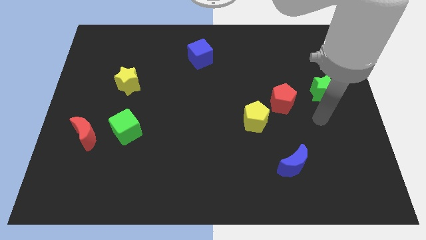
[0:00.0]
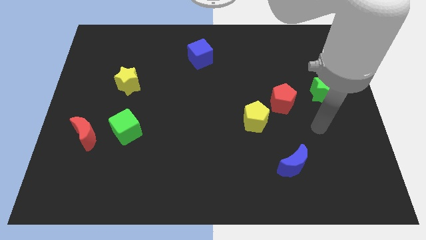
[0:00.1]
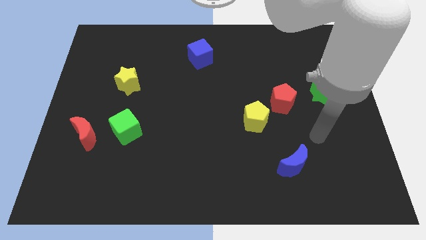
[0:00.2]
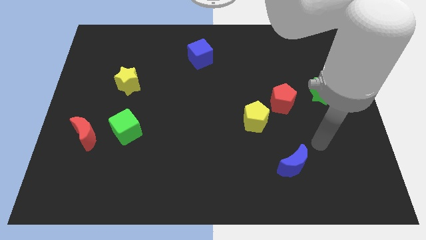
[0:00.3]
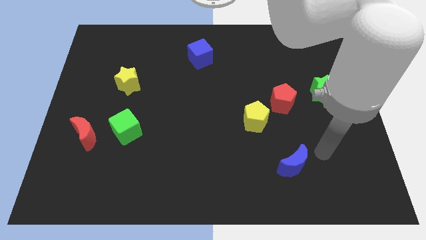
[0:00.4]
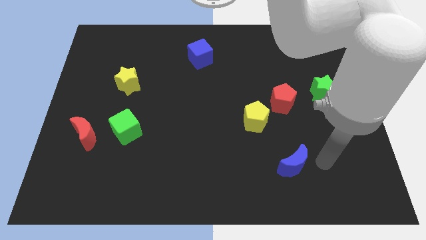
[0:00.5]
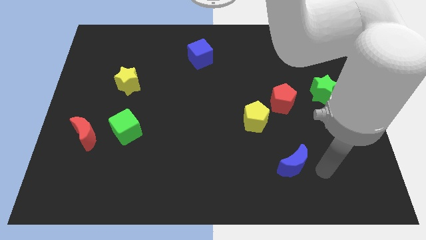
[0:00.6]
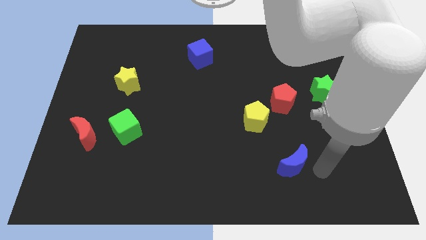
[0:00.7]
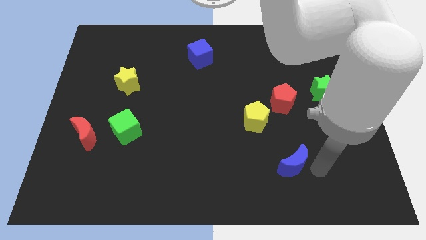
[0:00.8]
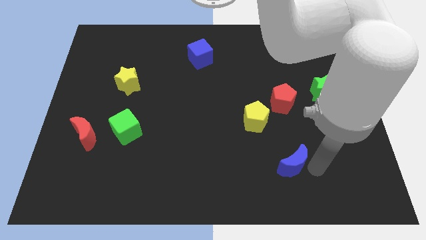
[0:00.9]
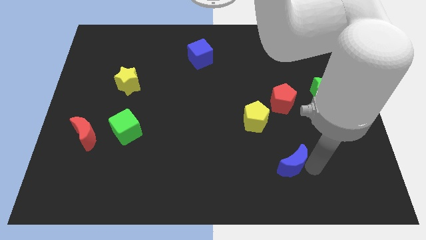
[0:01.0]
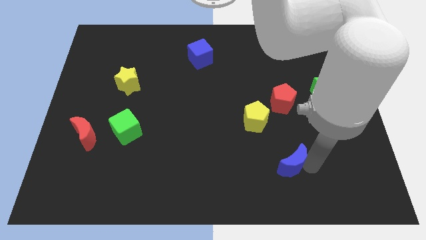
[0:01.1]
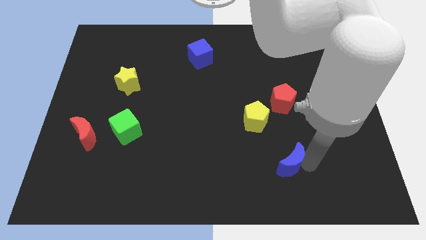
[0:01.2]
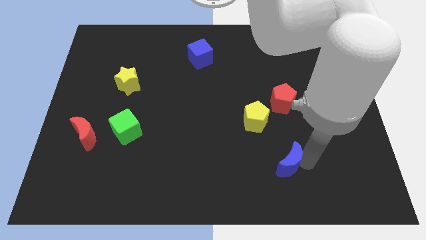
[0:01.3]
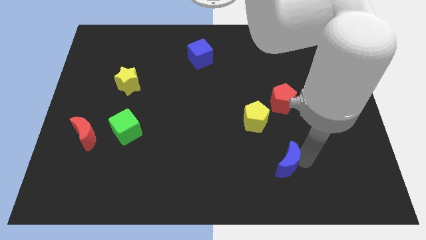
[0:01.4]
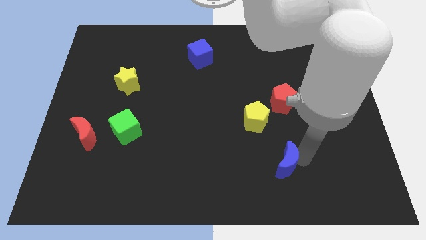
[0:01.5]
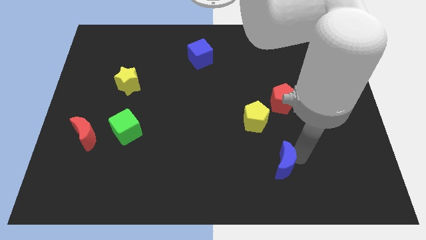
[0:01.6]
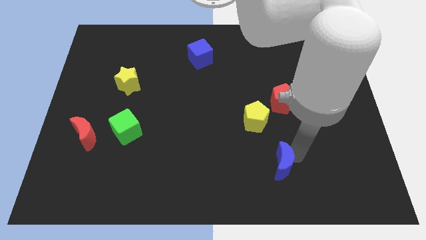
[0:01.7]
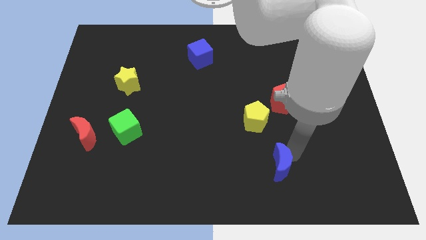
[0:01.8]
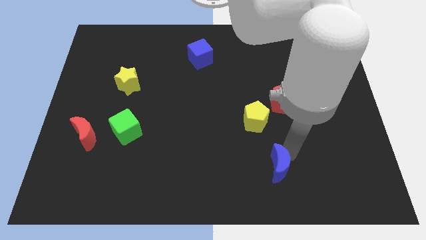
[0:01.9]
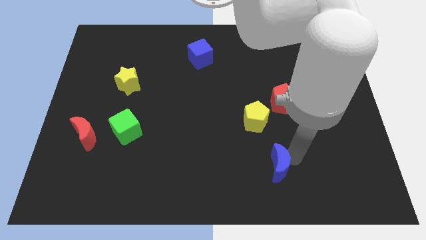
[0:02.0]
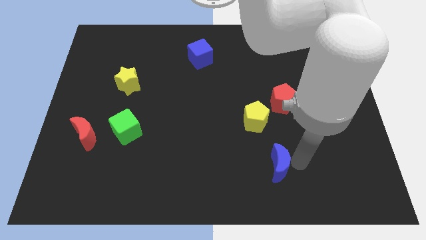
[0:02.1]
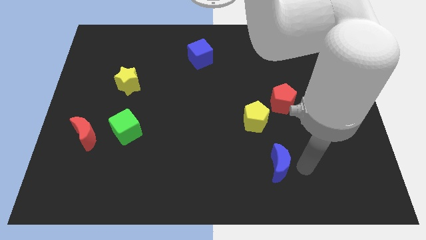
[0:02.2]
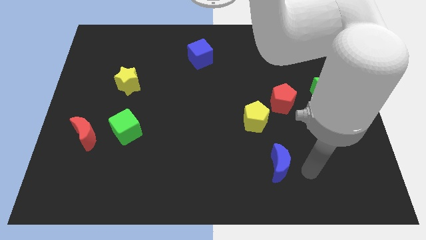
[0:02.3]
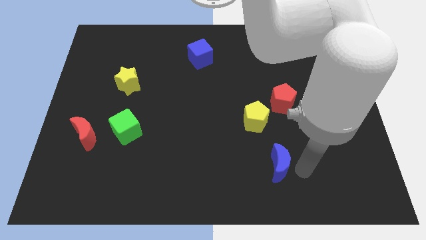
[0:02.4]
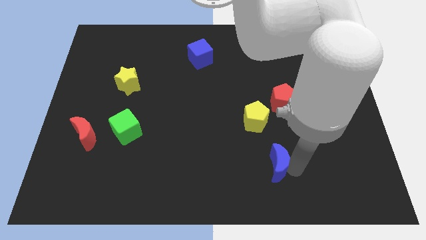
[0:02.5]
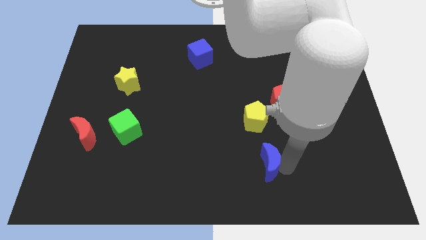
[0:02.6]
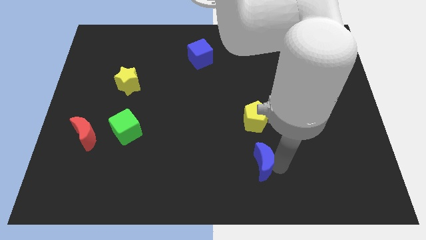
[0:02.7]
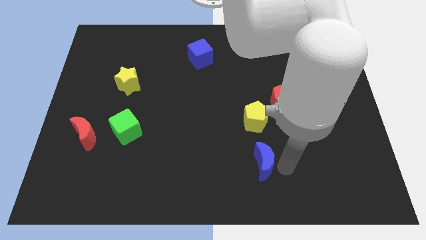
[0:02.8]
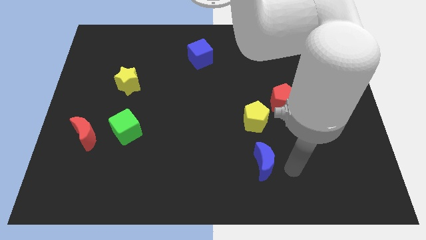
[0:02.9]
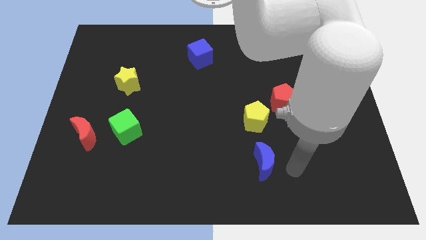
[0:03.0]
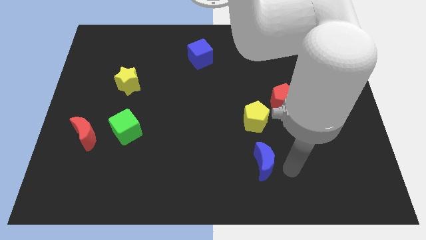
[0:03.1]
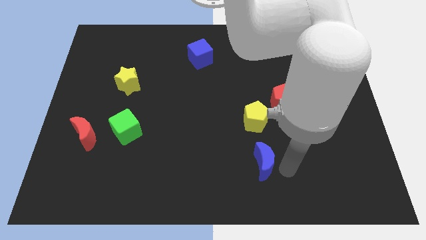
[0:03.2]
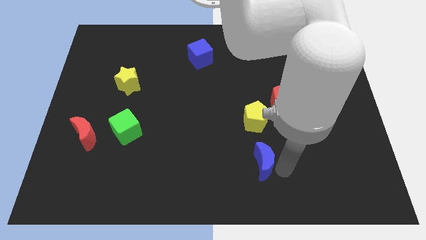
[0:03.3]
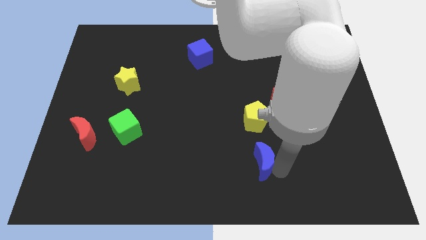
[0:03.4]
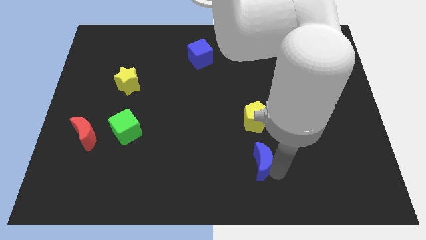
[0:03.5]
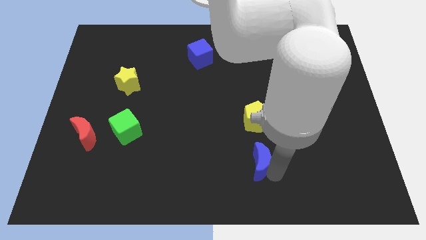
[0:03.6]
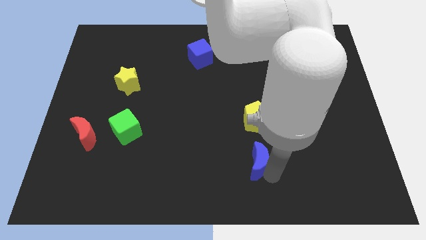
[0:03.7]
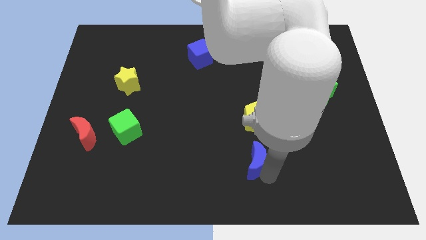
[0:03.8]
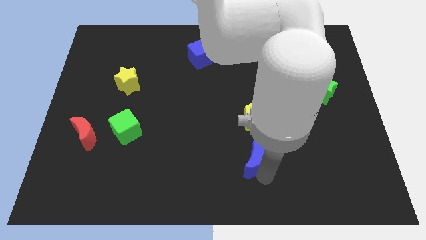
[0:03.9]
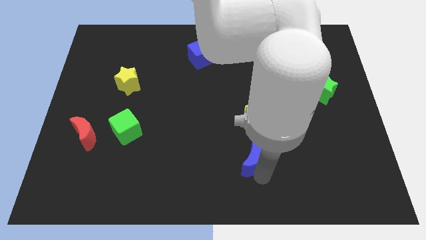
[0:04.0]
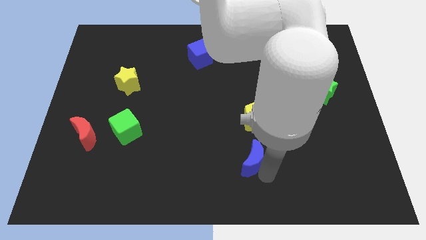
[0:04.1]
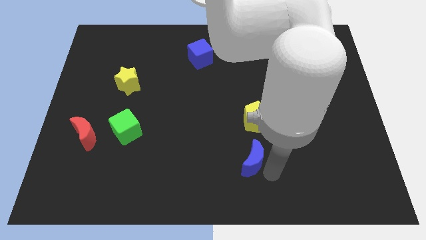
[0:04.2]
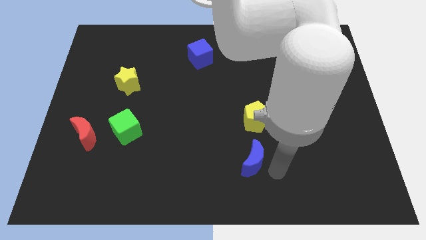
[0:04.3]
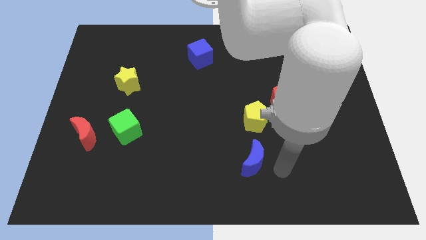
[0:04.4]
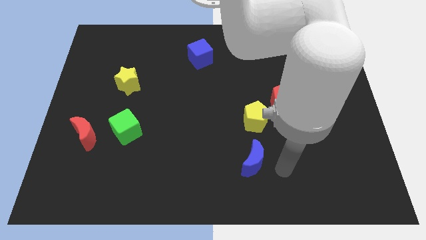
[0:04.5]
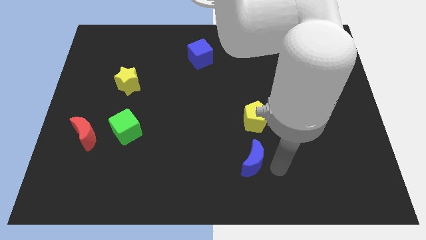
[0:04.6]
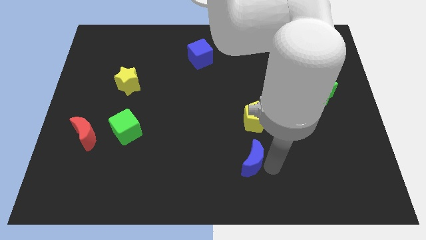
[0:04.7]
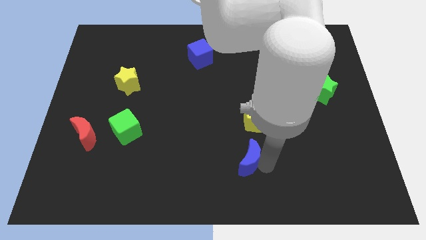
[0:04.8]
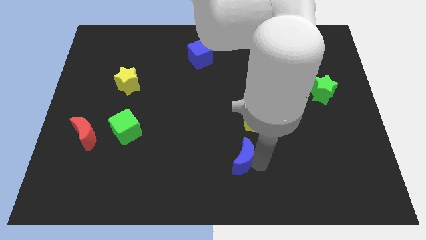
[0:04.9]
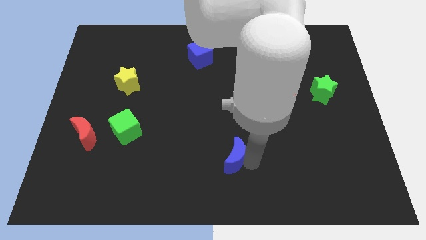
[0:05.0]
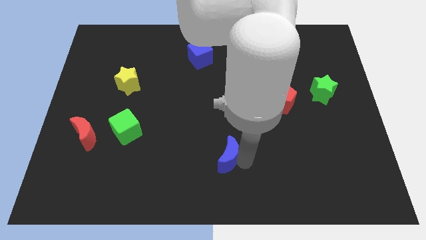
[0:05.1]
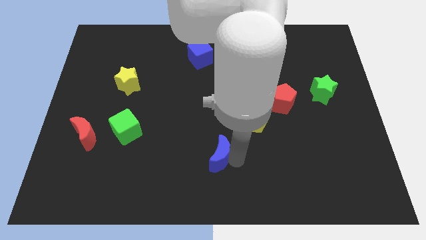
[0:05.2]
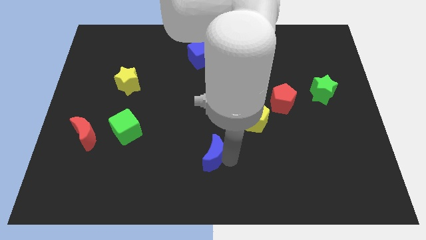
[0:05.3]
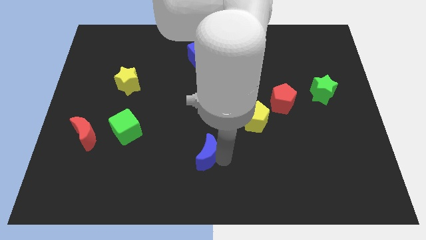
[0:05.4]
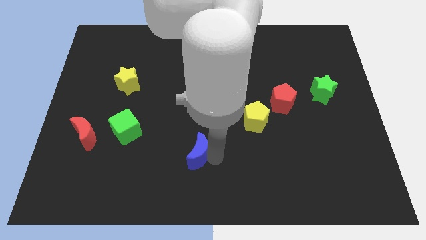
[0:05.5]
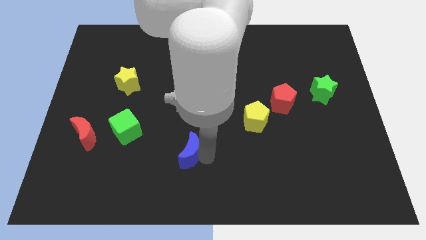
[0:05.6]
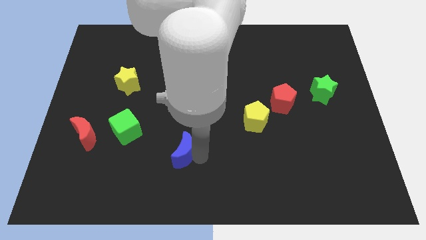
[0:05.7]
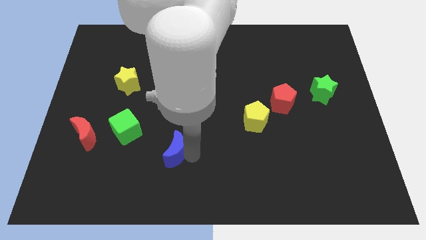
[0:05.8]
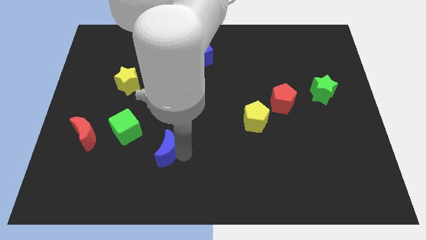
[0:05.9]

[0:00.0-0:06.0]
slide the blue moon to the bottom right of the green cube

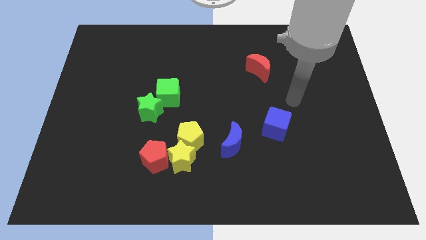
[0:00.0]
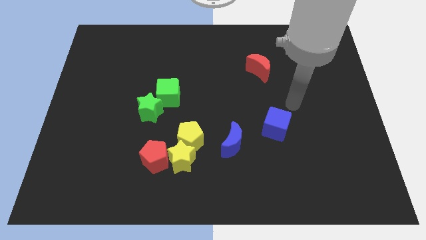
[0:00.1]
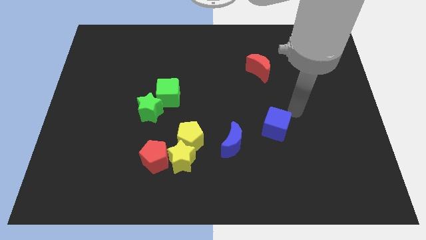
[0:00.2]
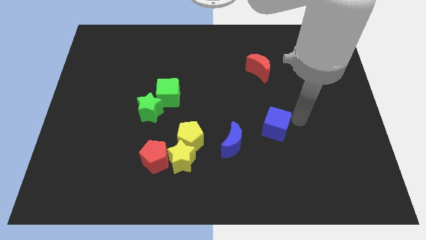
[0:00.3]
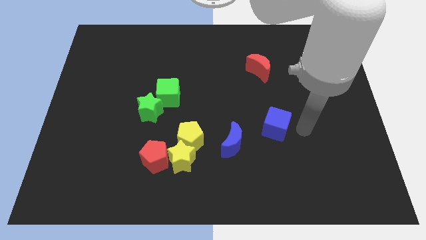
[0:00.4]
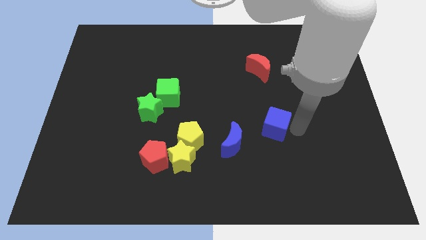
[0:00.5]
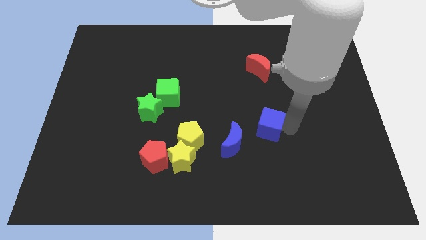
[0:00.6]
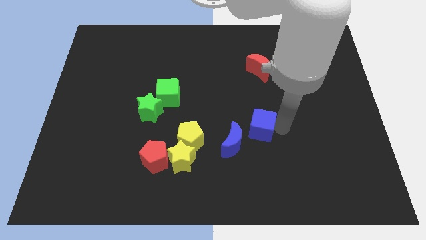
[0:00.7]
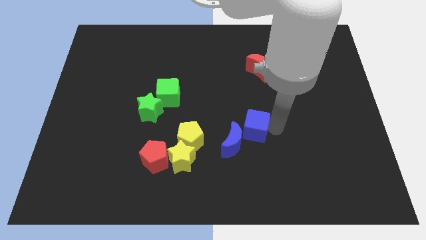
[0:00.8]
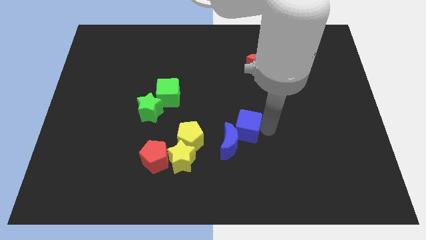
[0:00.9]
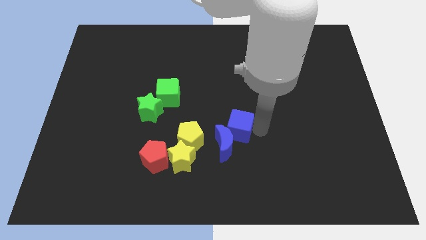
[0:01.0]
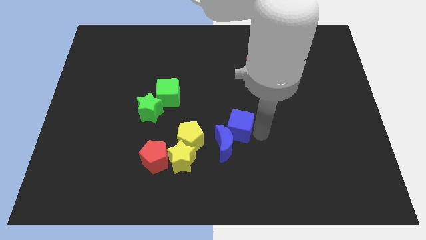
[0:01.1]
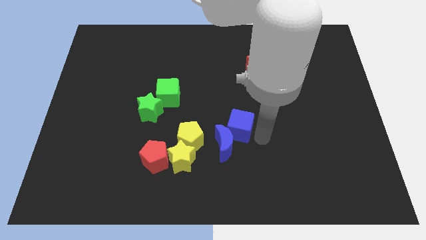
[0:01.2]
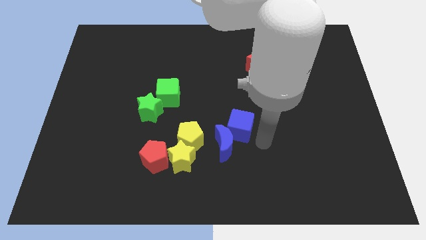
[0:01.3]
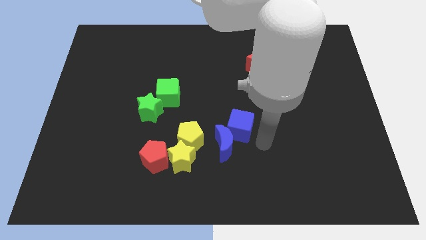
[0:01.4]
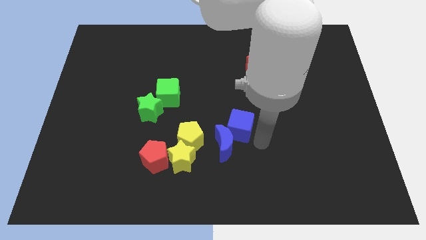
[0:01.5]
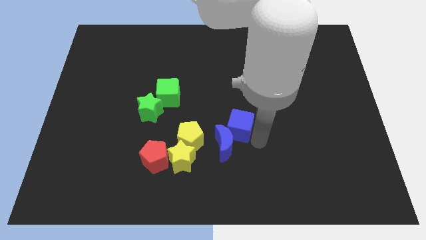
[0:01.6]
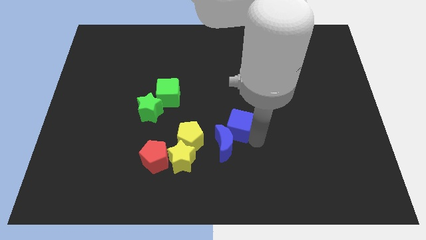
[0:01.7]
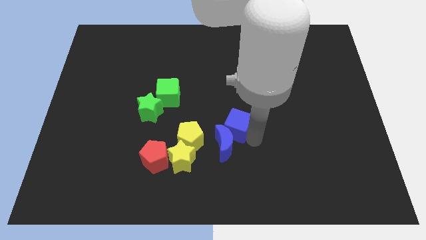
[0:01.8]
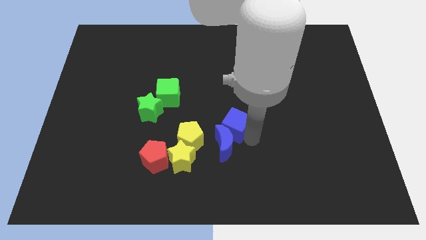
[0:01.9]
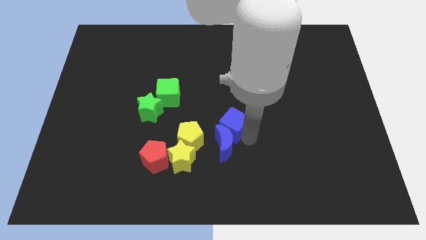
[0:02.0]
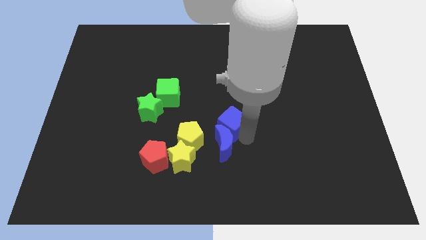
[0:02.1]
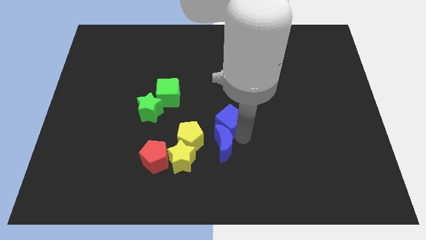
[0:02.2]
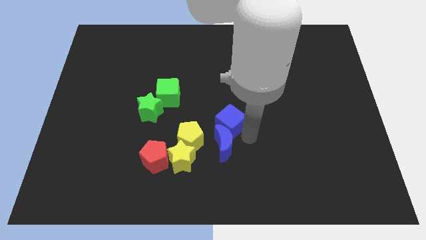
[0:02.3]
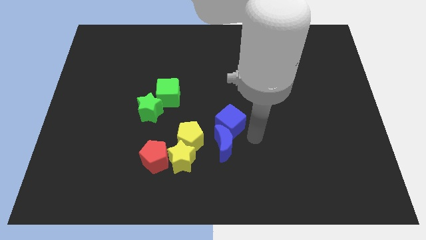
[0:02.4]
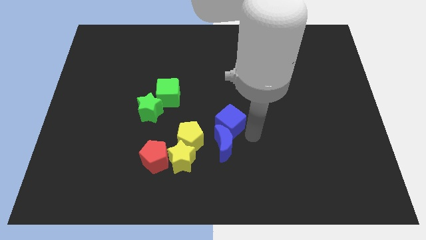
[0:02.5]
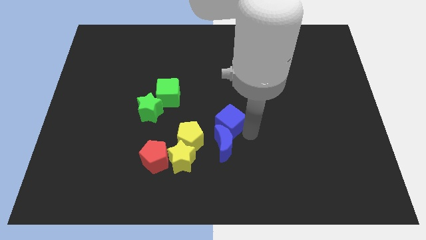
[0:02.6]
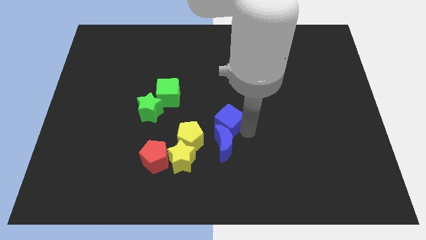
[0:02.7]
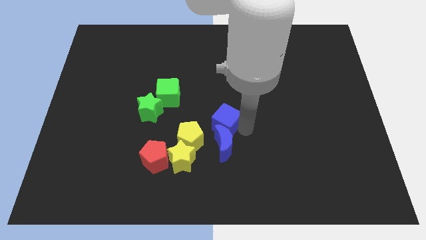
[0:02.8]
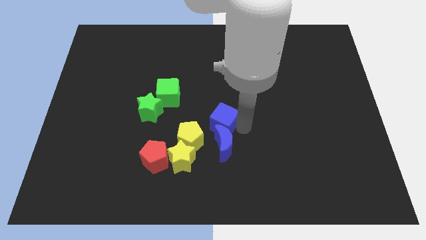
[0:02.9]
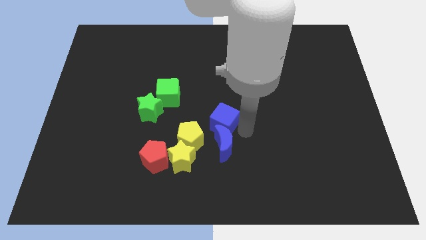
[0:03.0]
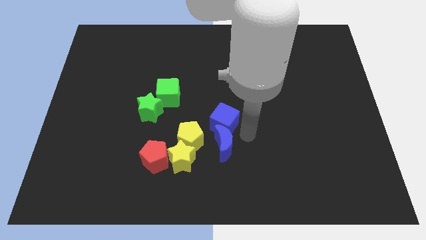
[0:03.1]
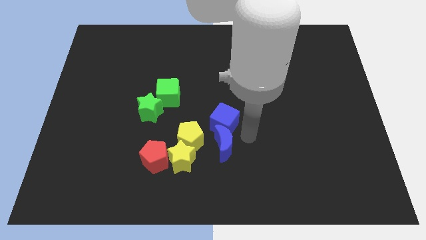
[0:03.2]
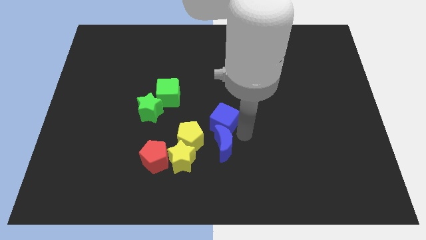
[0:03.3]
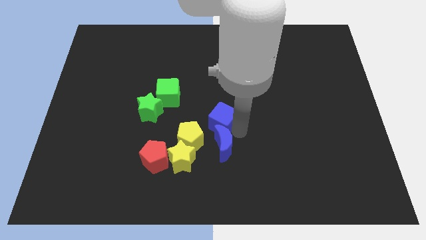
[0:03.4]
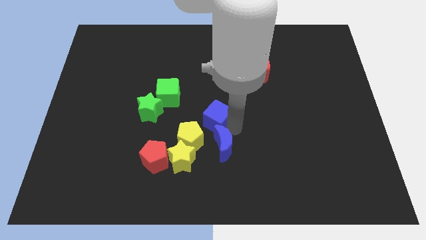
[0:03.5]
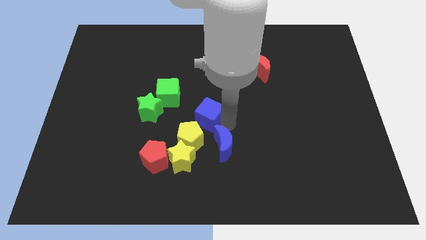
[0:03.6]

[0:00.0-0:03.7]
move the blue cube to the bottom right of the green cube
